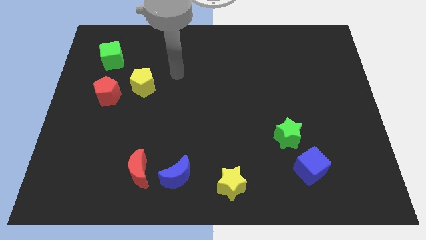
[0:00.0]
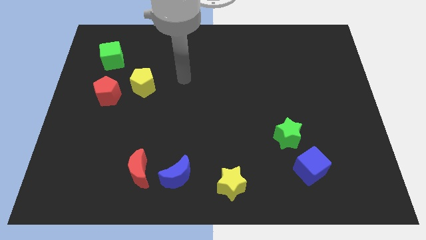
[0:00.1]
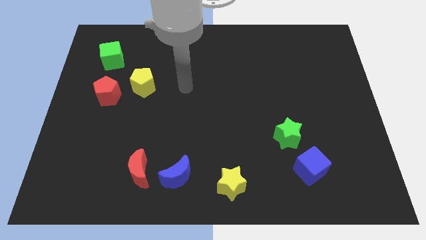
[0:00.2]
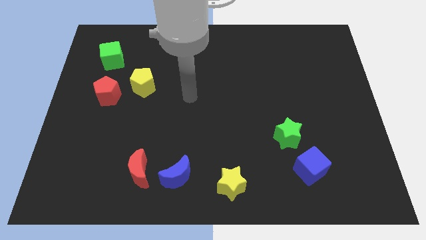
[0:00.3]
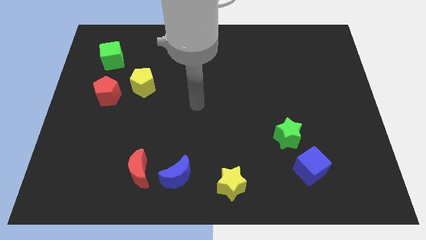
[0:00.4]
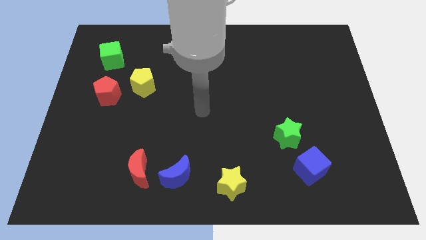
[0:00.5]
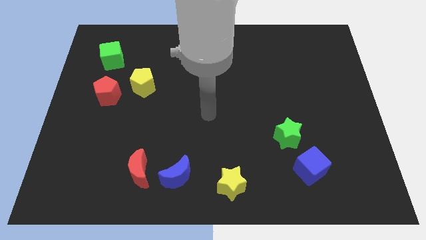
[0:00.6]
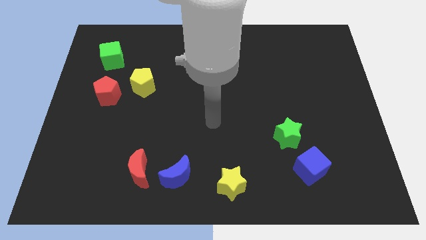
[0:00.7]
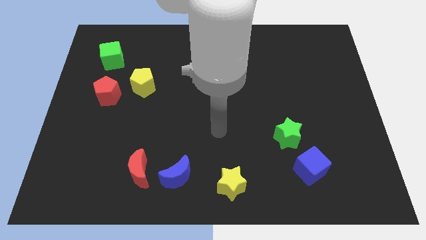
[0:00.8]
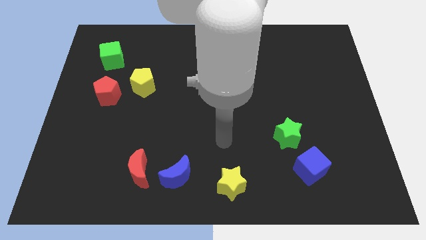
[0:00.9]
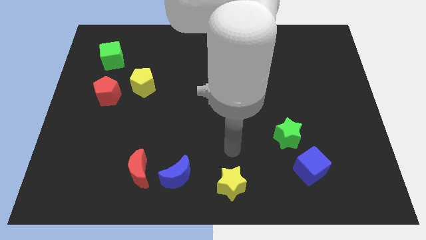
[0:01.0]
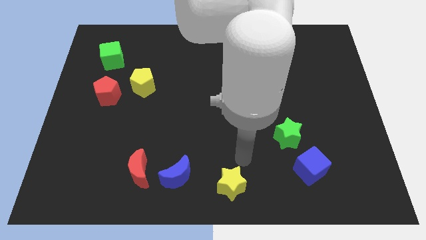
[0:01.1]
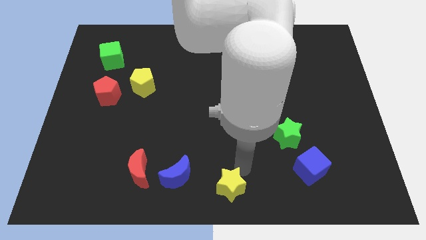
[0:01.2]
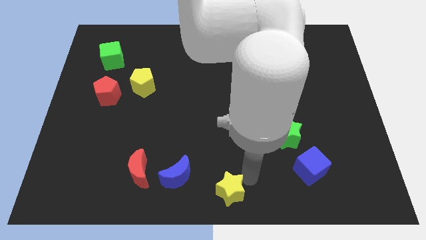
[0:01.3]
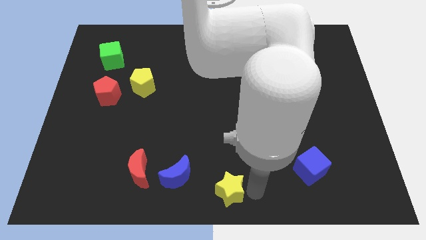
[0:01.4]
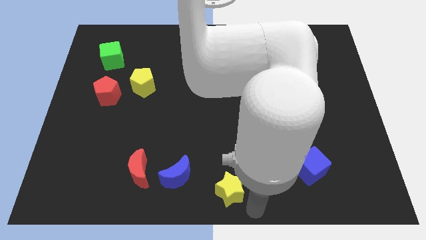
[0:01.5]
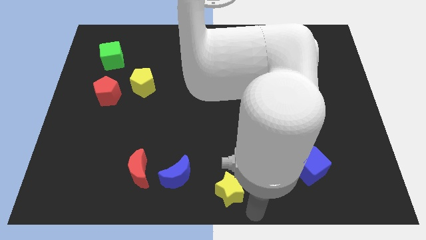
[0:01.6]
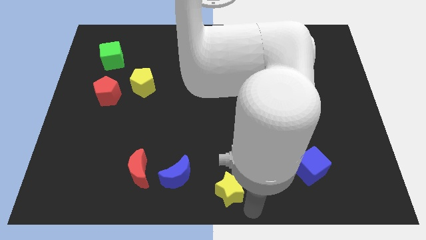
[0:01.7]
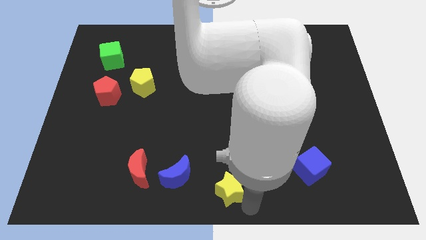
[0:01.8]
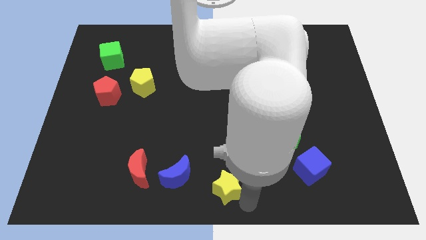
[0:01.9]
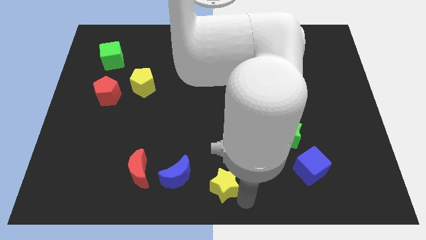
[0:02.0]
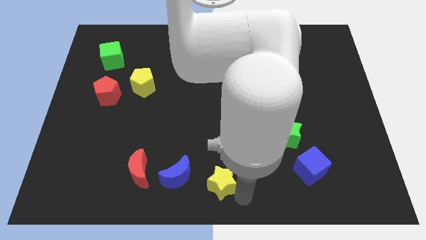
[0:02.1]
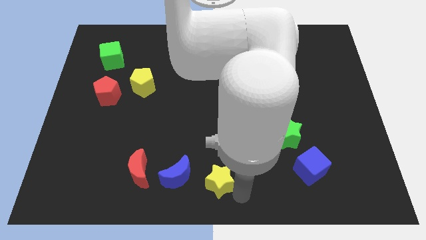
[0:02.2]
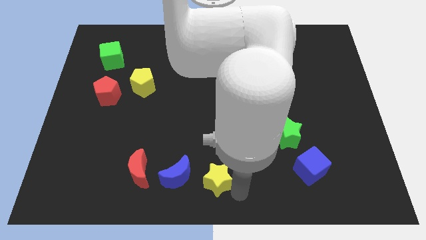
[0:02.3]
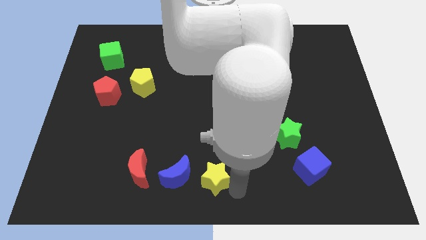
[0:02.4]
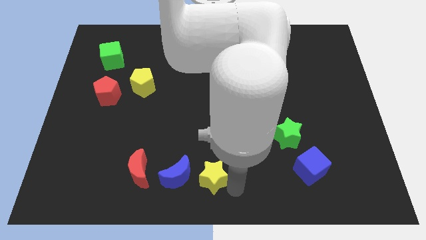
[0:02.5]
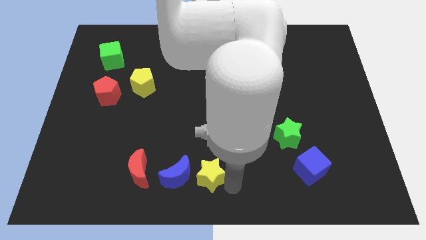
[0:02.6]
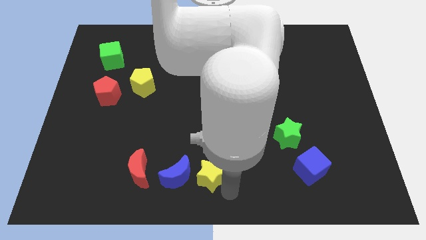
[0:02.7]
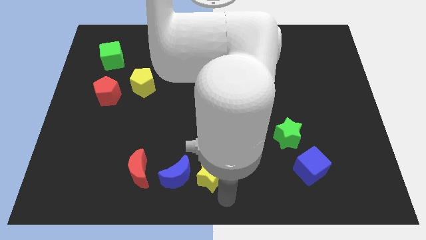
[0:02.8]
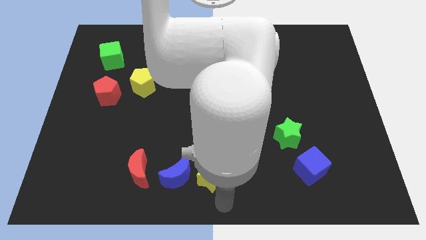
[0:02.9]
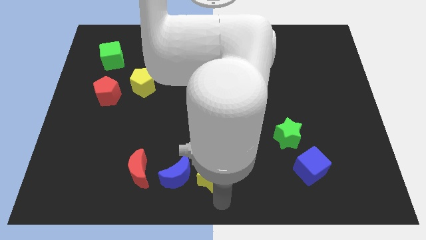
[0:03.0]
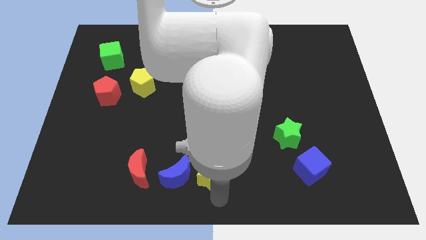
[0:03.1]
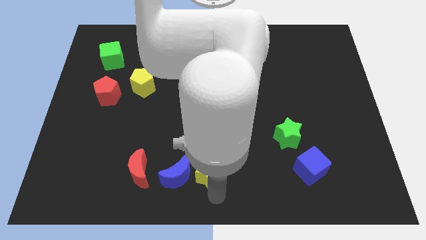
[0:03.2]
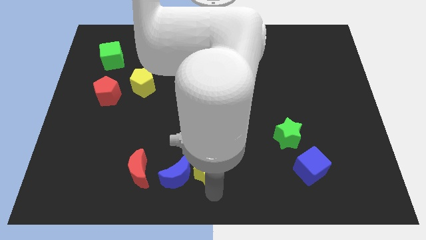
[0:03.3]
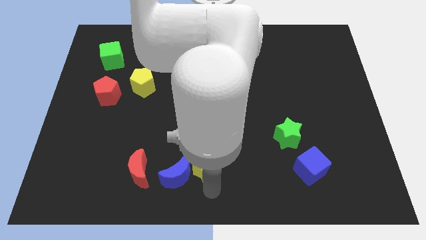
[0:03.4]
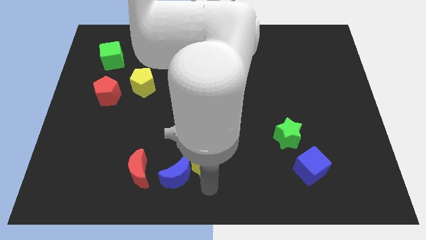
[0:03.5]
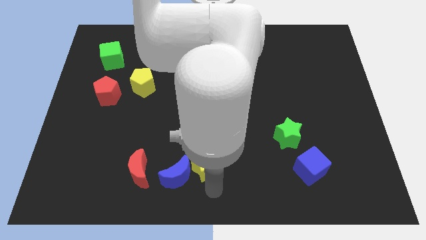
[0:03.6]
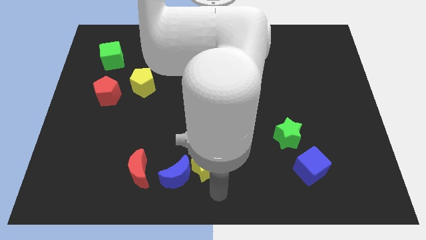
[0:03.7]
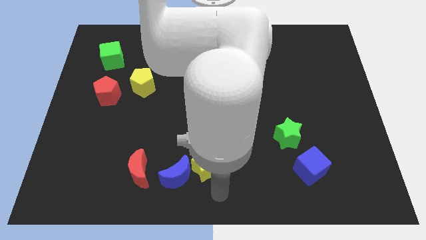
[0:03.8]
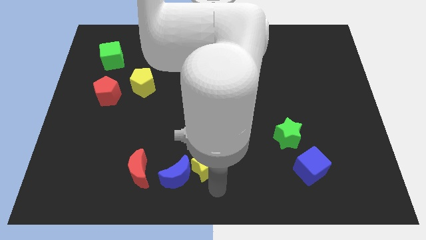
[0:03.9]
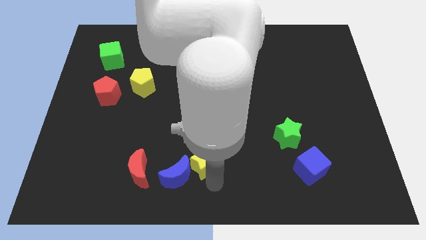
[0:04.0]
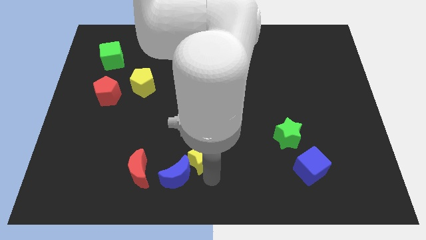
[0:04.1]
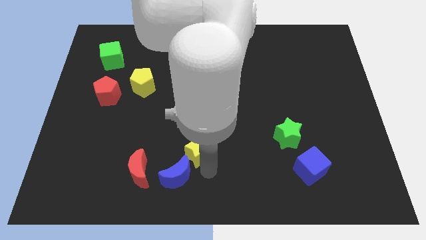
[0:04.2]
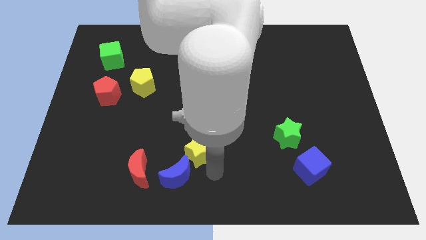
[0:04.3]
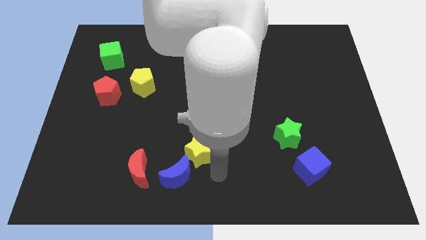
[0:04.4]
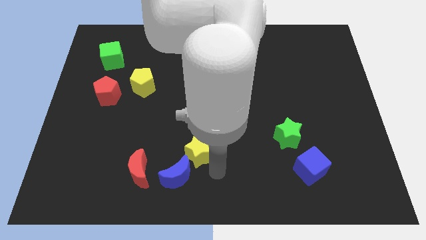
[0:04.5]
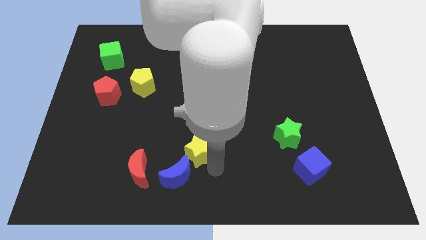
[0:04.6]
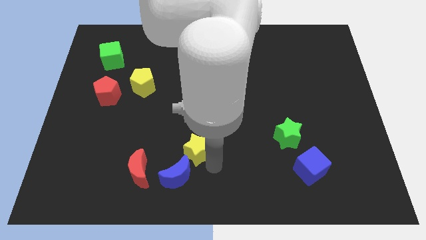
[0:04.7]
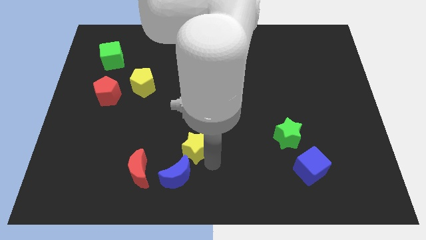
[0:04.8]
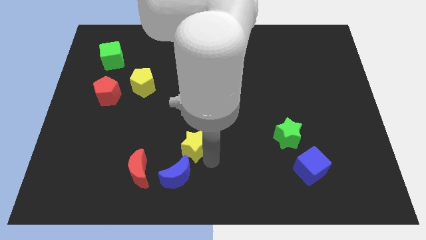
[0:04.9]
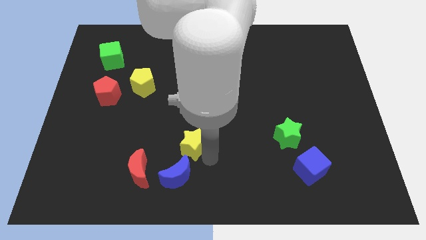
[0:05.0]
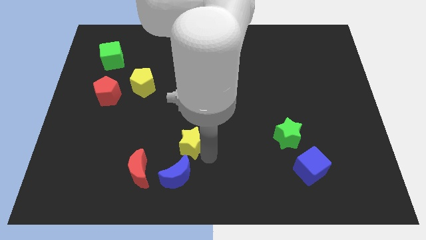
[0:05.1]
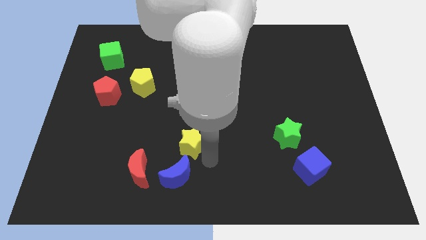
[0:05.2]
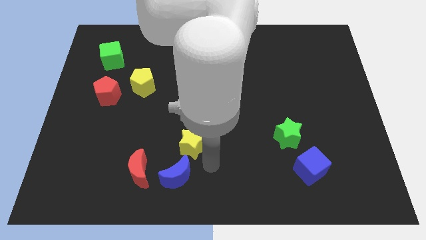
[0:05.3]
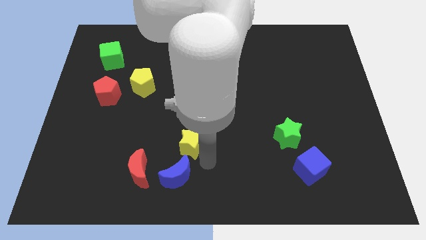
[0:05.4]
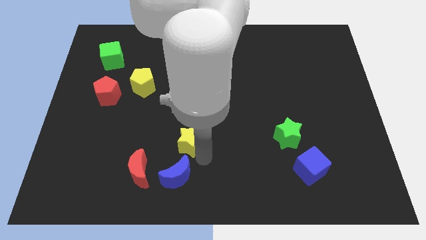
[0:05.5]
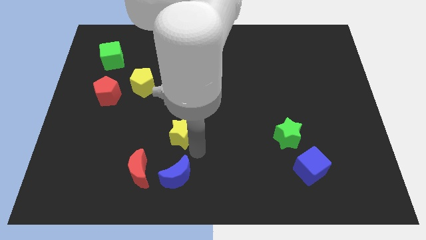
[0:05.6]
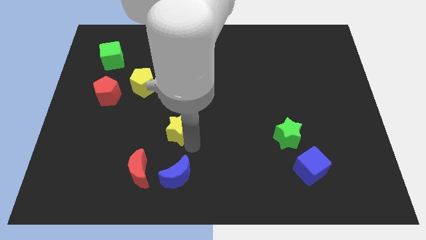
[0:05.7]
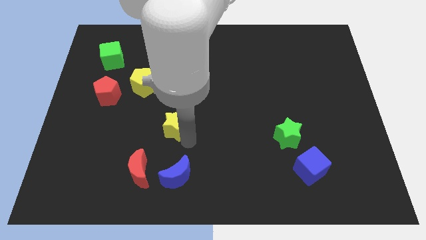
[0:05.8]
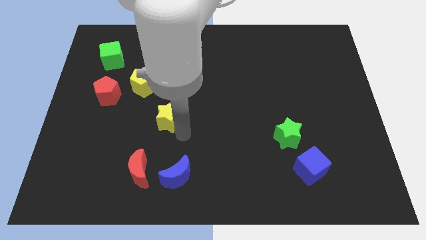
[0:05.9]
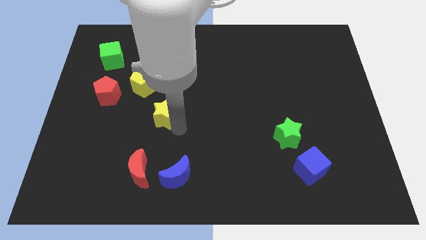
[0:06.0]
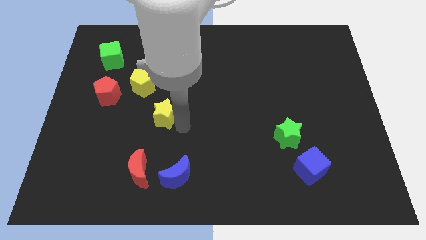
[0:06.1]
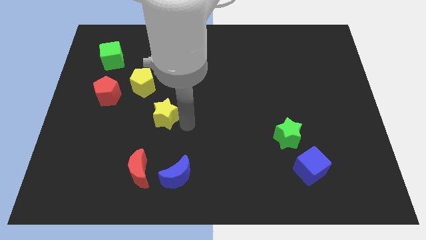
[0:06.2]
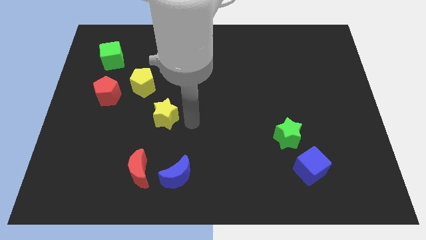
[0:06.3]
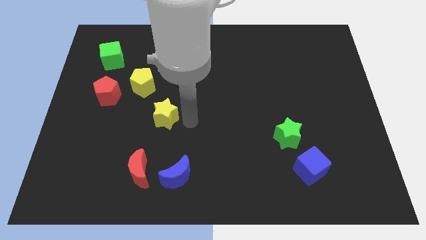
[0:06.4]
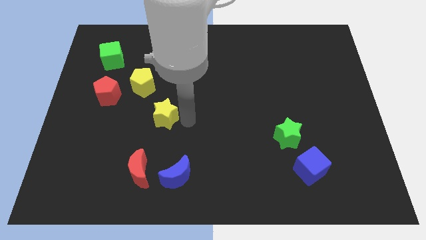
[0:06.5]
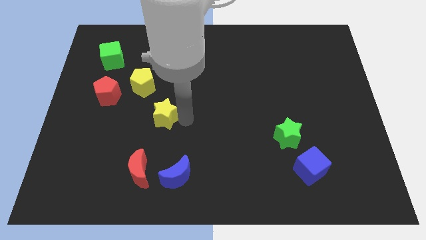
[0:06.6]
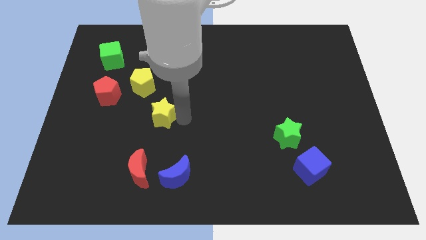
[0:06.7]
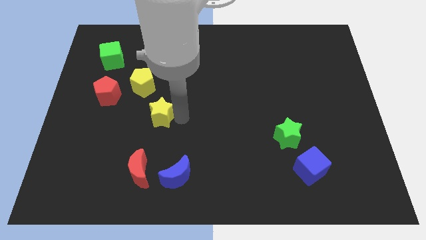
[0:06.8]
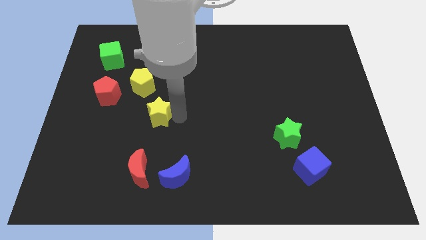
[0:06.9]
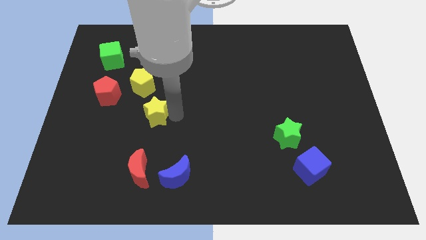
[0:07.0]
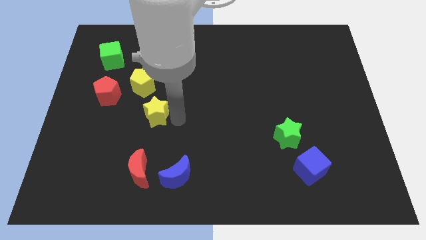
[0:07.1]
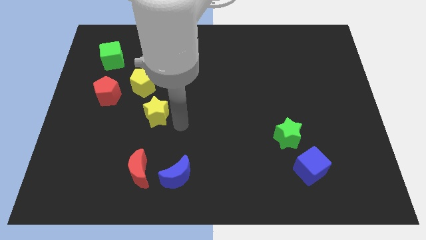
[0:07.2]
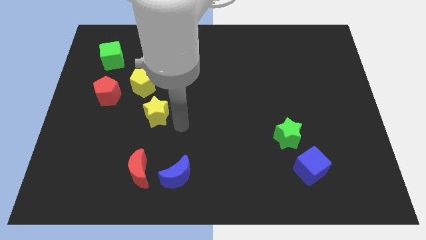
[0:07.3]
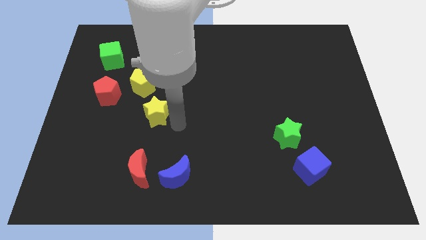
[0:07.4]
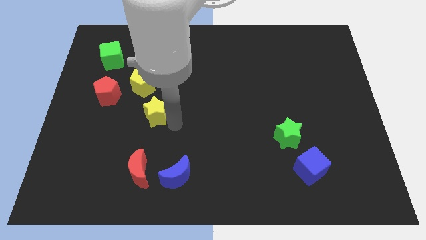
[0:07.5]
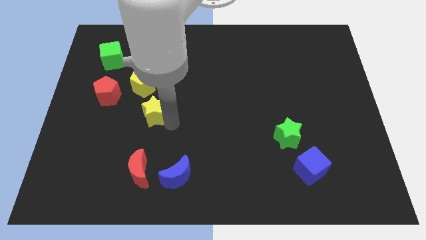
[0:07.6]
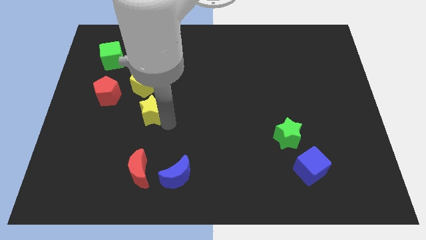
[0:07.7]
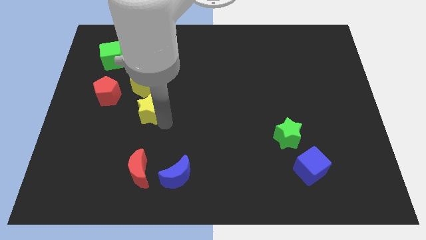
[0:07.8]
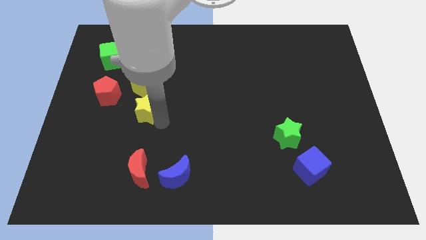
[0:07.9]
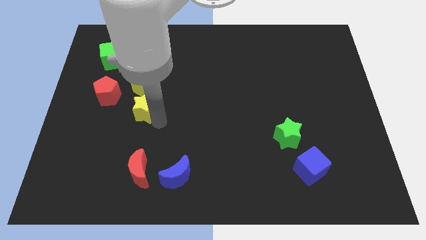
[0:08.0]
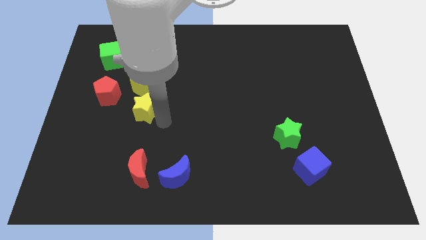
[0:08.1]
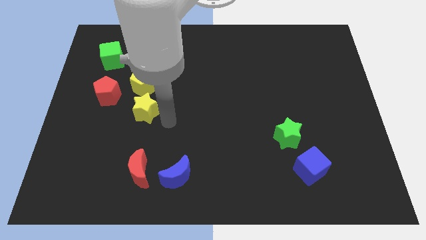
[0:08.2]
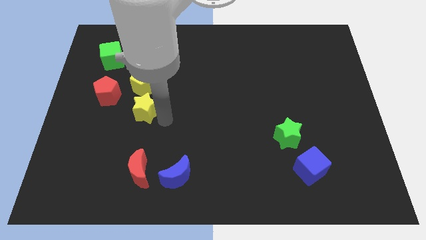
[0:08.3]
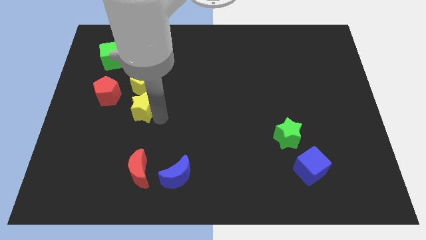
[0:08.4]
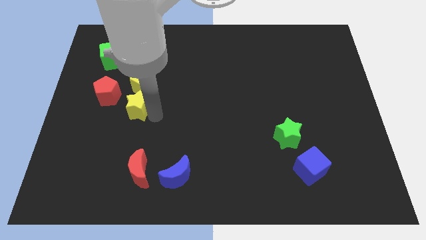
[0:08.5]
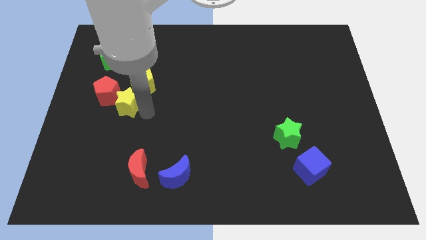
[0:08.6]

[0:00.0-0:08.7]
slide the yellow star to the red pentagon
